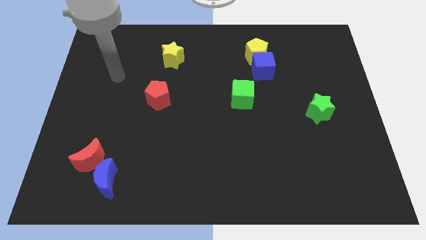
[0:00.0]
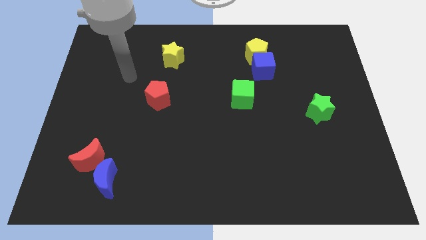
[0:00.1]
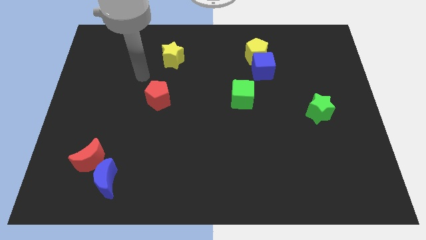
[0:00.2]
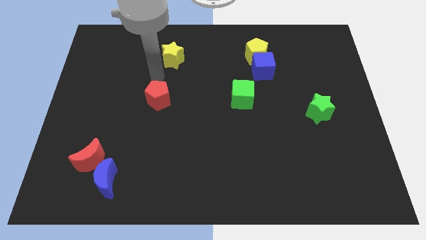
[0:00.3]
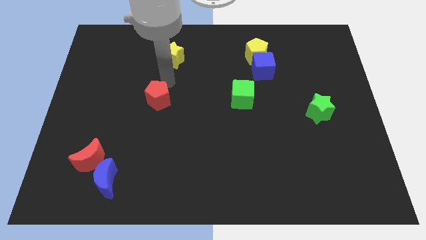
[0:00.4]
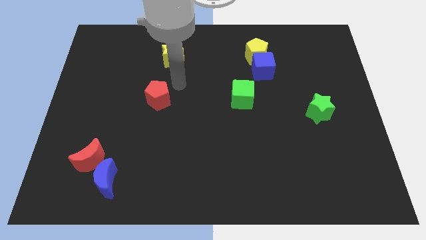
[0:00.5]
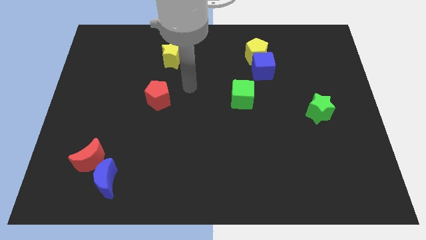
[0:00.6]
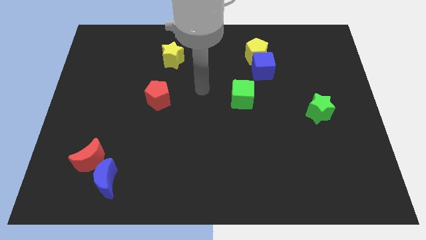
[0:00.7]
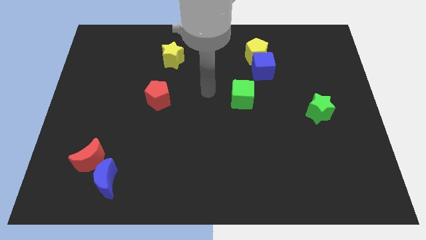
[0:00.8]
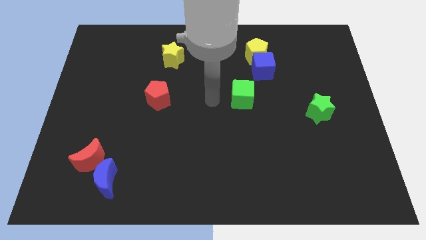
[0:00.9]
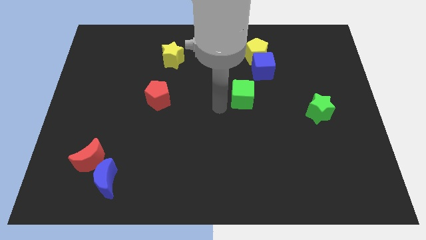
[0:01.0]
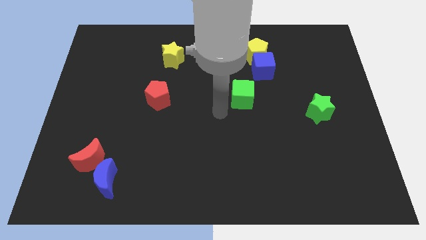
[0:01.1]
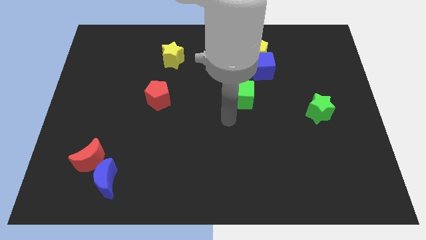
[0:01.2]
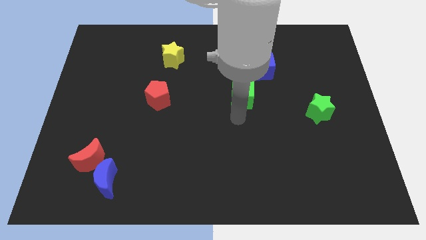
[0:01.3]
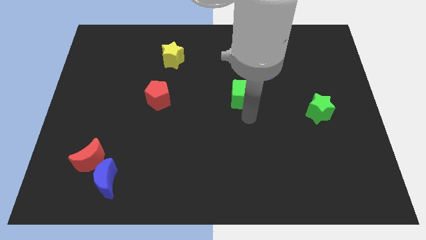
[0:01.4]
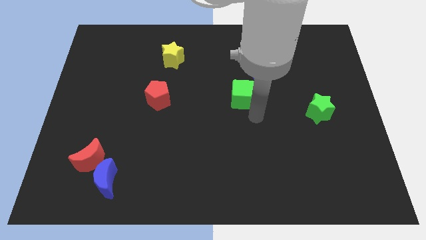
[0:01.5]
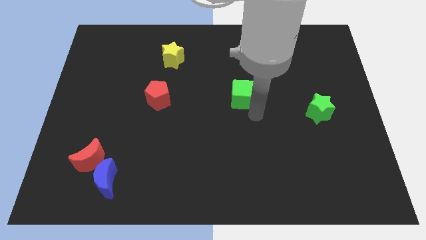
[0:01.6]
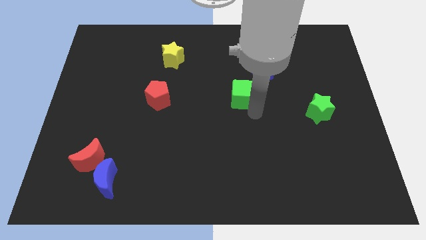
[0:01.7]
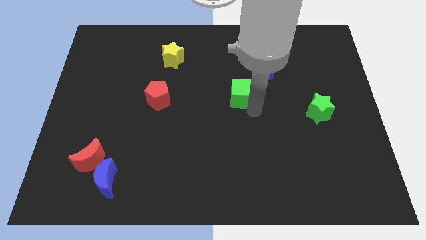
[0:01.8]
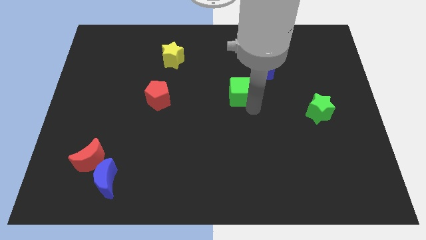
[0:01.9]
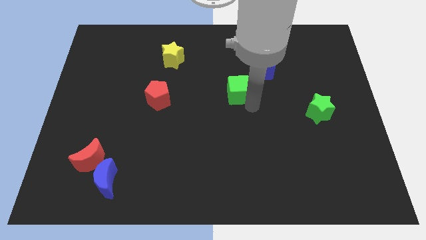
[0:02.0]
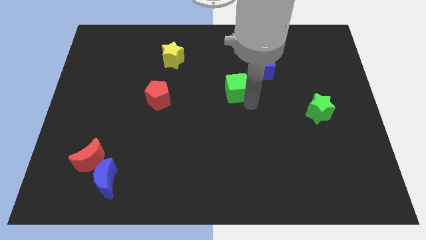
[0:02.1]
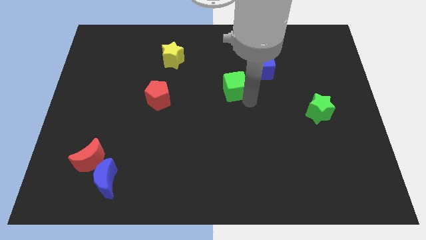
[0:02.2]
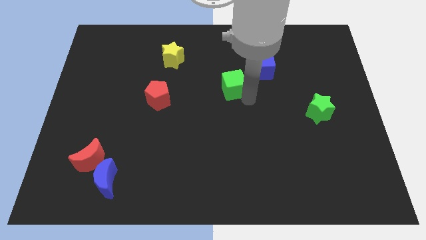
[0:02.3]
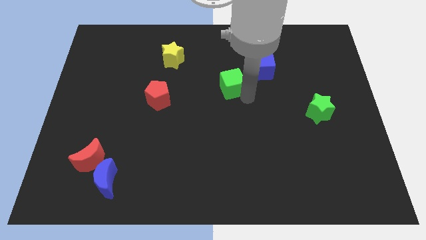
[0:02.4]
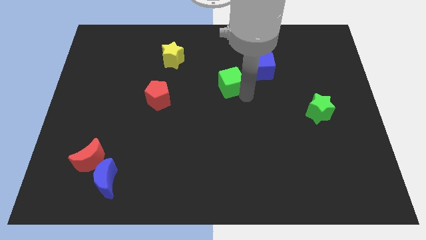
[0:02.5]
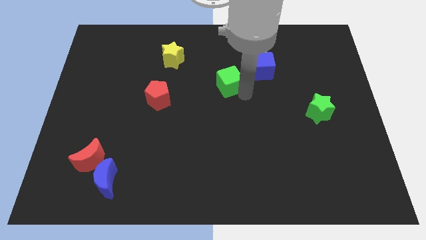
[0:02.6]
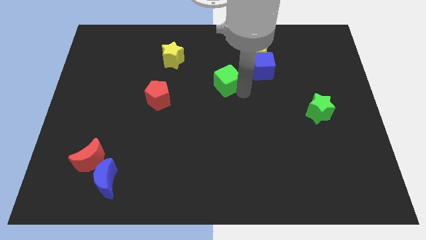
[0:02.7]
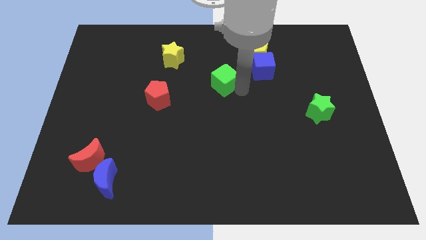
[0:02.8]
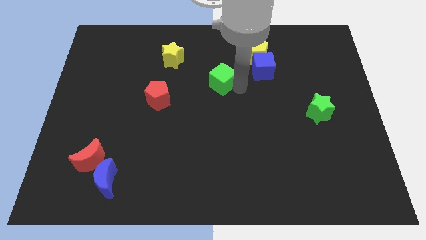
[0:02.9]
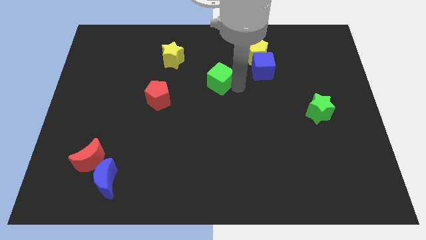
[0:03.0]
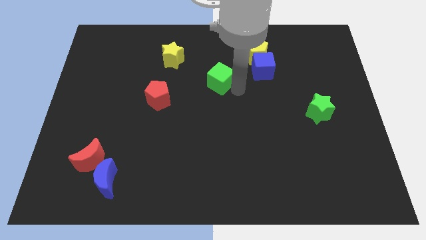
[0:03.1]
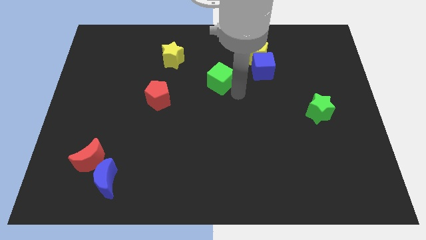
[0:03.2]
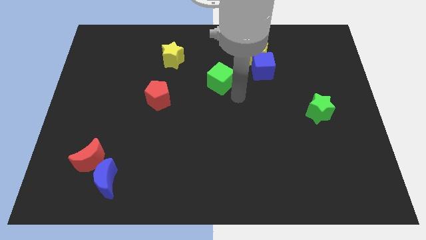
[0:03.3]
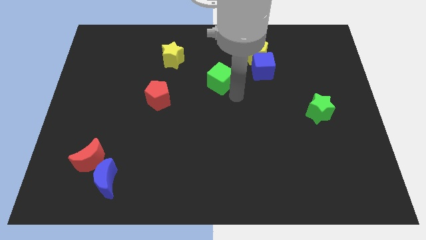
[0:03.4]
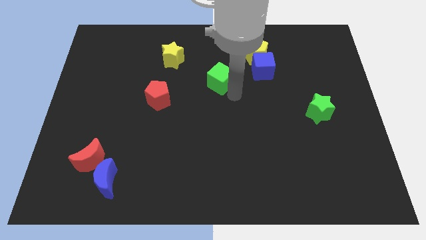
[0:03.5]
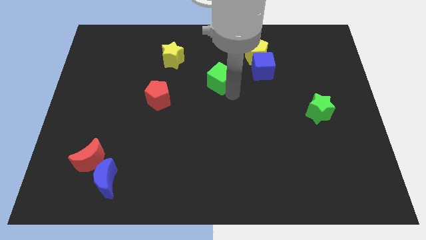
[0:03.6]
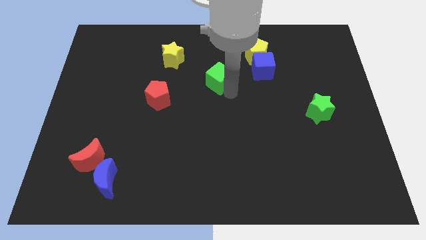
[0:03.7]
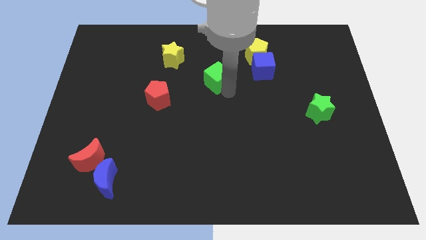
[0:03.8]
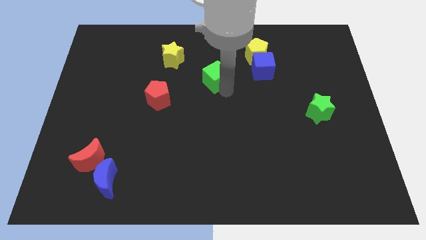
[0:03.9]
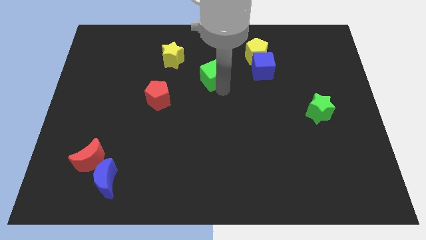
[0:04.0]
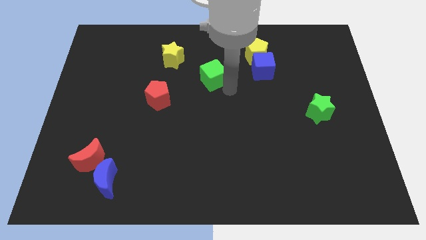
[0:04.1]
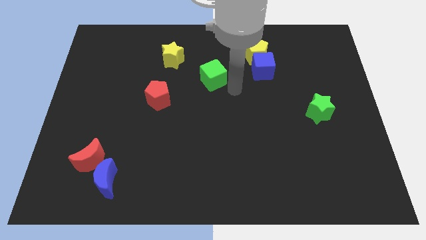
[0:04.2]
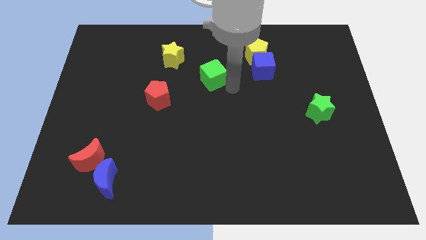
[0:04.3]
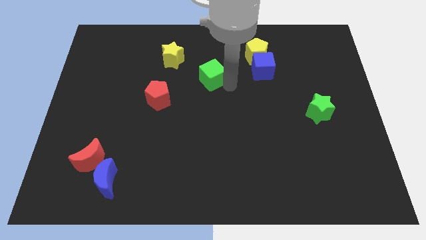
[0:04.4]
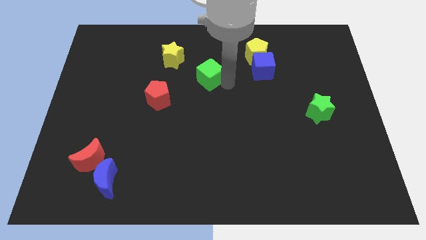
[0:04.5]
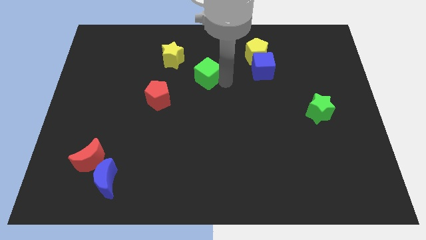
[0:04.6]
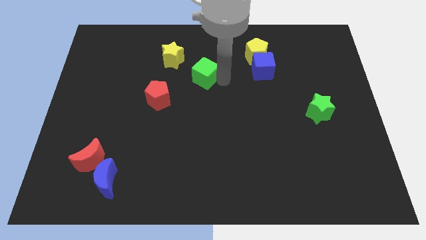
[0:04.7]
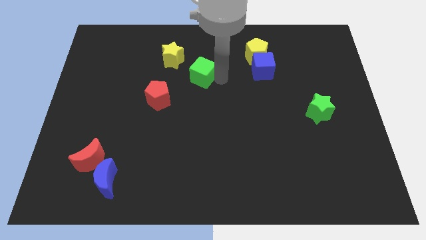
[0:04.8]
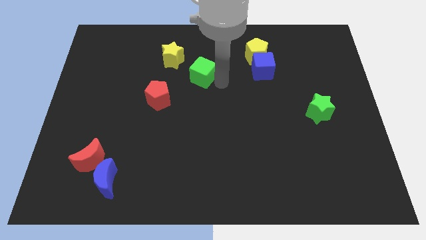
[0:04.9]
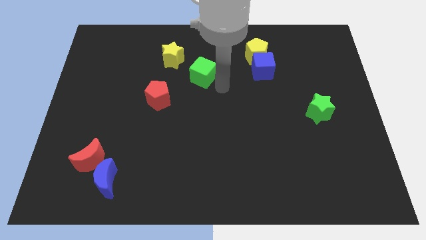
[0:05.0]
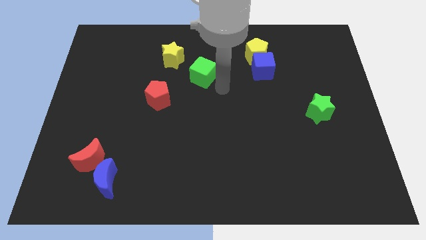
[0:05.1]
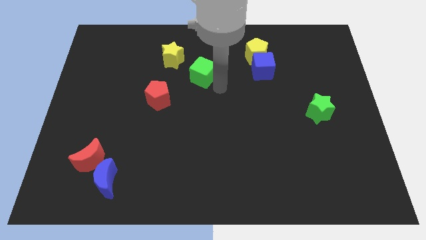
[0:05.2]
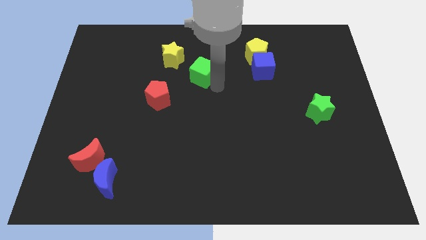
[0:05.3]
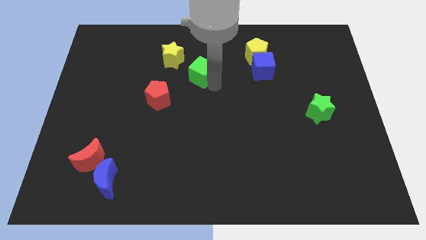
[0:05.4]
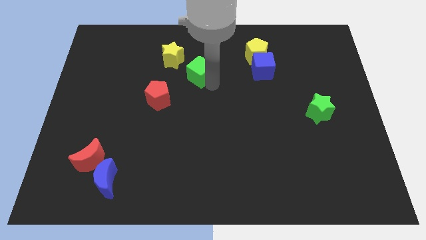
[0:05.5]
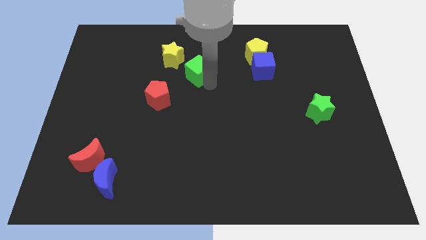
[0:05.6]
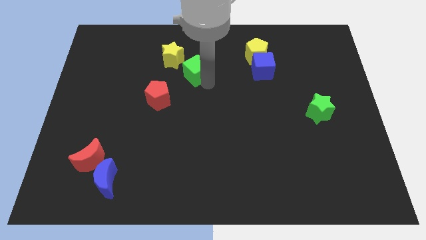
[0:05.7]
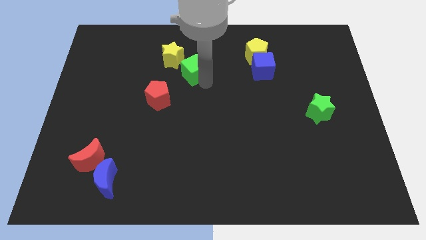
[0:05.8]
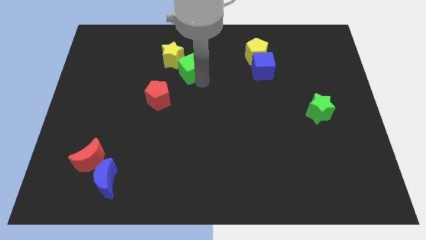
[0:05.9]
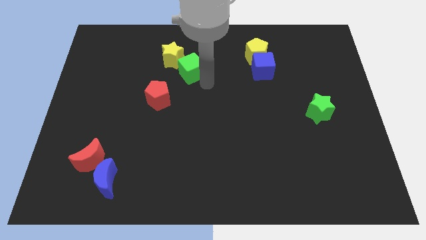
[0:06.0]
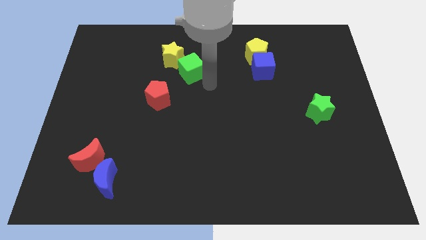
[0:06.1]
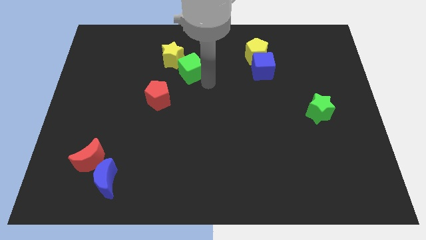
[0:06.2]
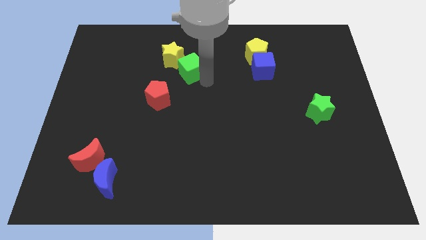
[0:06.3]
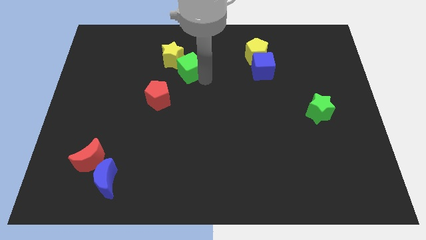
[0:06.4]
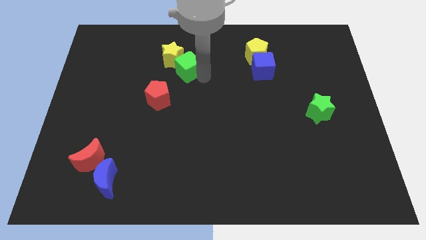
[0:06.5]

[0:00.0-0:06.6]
put the green cube to the yellow star
